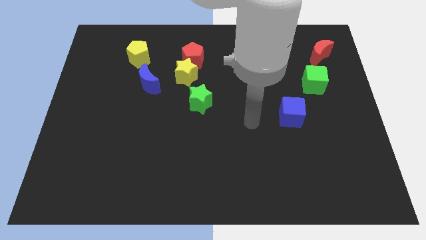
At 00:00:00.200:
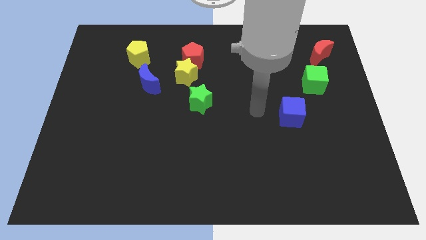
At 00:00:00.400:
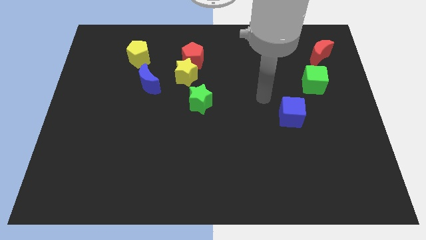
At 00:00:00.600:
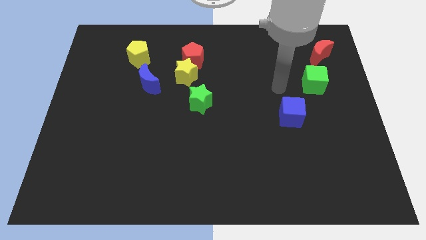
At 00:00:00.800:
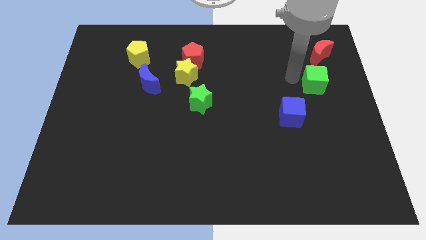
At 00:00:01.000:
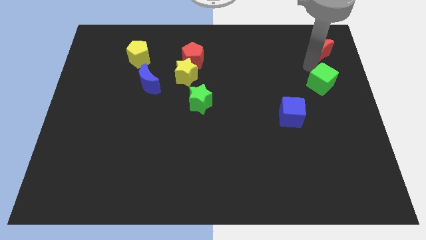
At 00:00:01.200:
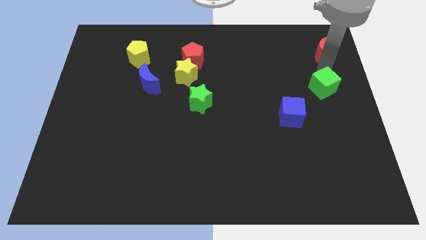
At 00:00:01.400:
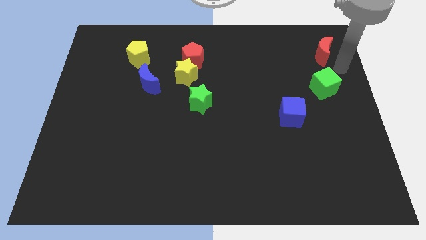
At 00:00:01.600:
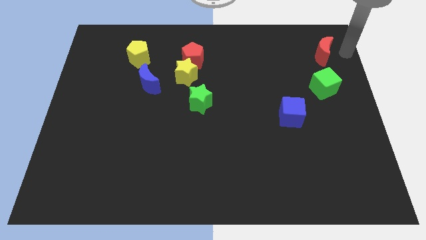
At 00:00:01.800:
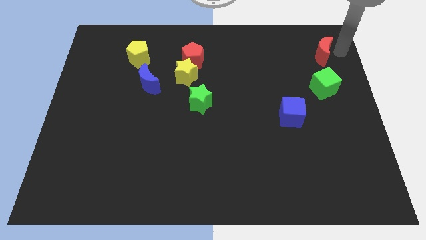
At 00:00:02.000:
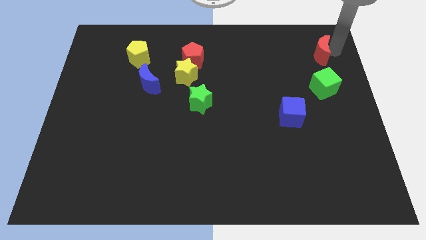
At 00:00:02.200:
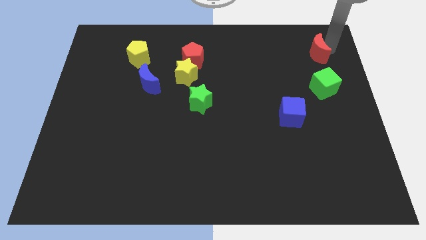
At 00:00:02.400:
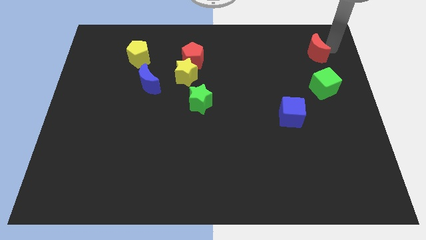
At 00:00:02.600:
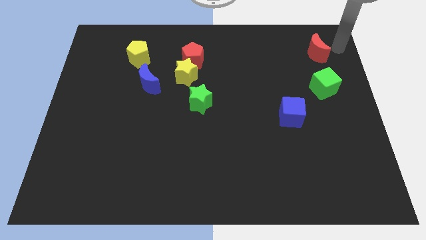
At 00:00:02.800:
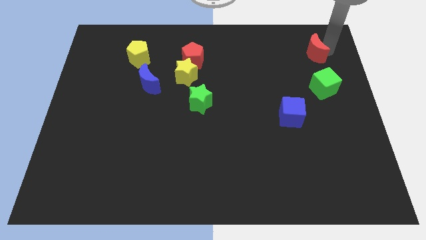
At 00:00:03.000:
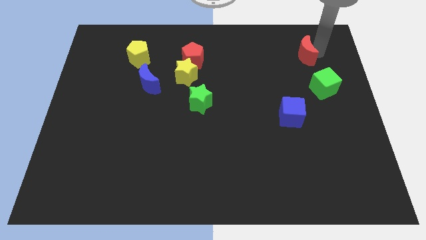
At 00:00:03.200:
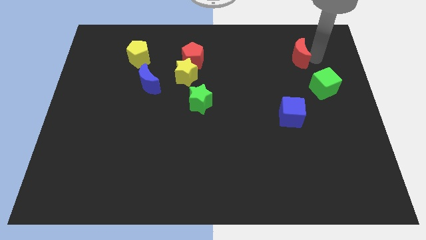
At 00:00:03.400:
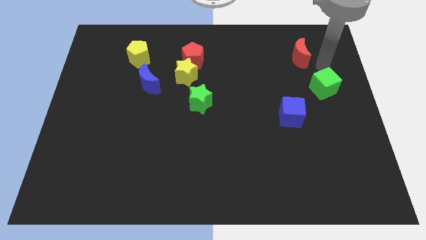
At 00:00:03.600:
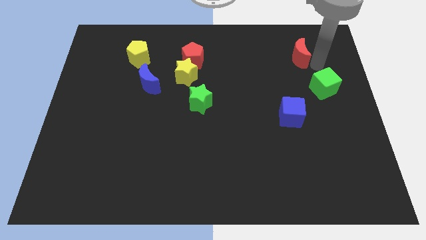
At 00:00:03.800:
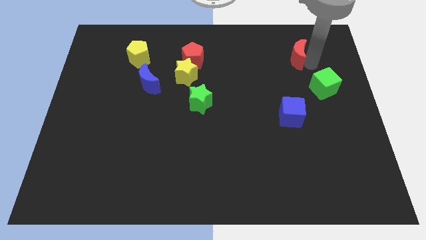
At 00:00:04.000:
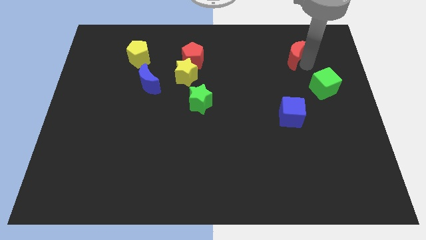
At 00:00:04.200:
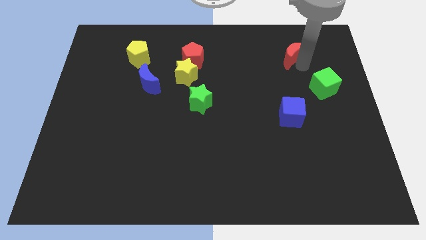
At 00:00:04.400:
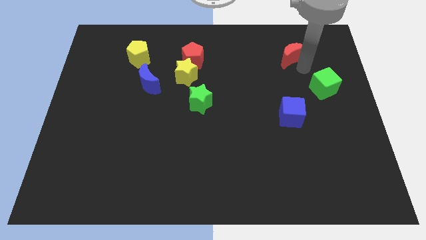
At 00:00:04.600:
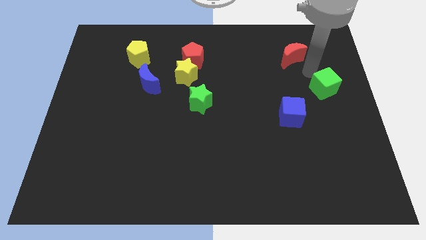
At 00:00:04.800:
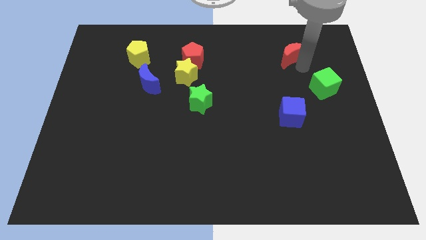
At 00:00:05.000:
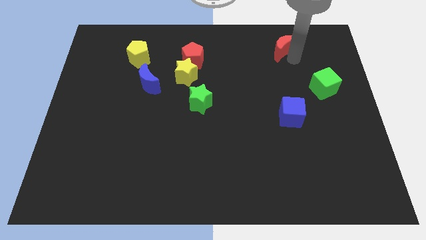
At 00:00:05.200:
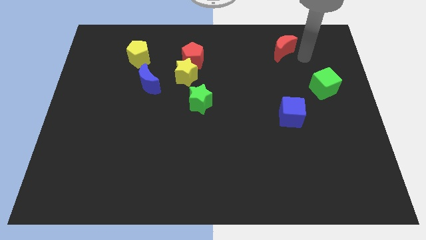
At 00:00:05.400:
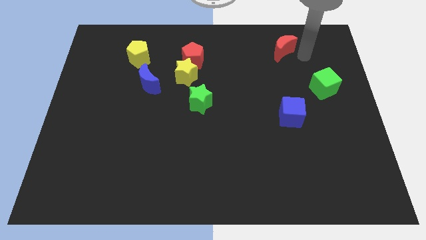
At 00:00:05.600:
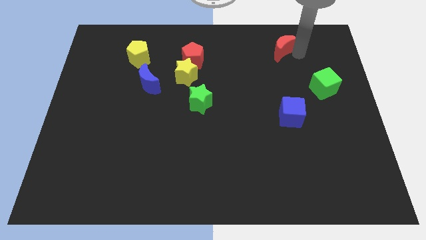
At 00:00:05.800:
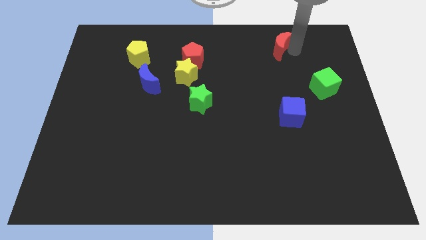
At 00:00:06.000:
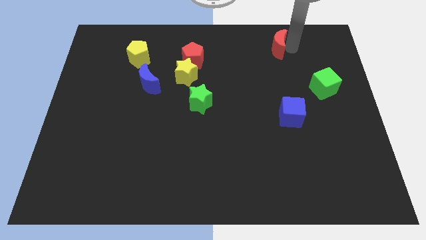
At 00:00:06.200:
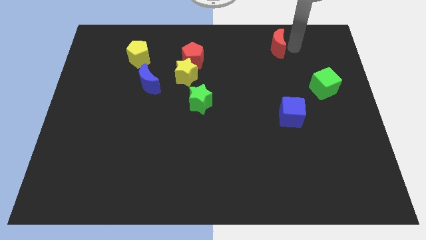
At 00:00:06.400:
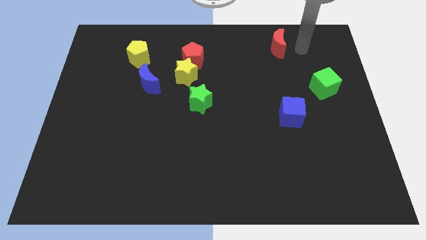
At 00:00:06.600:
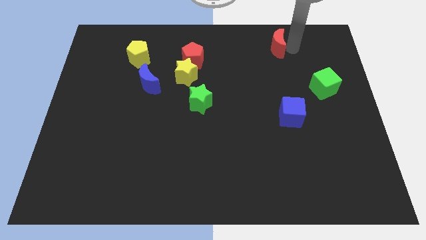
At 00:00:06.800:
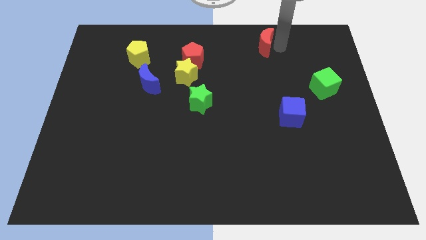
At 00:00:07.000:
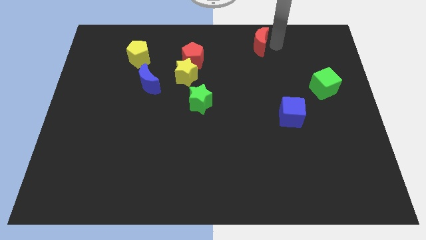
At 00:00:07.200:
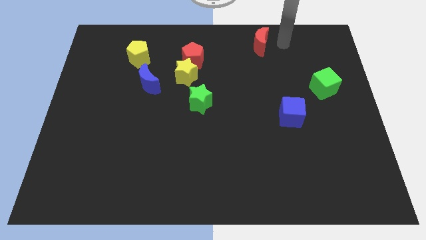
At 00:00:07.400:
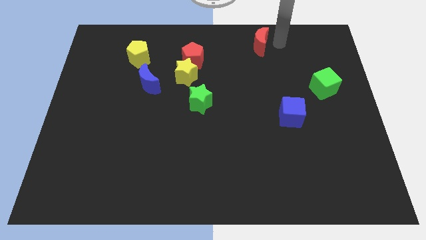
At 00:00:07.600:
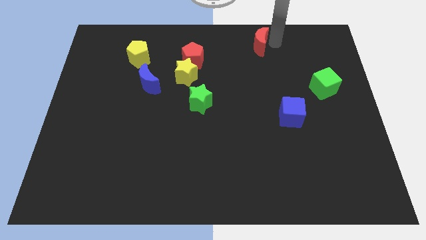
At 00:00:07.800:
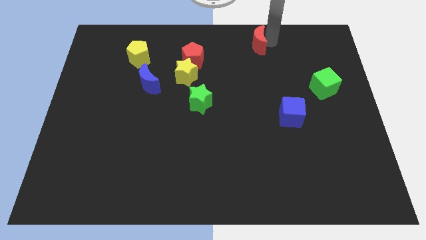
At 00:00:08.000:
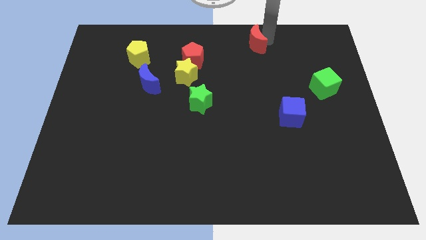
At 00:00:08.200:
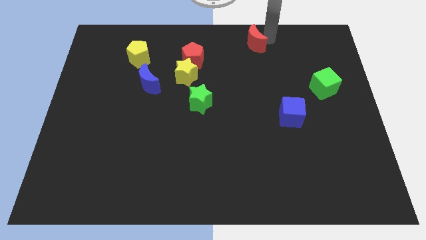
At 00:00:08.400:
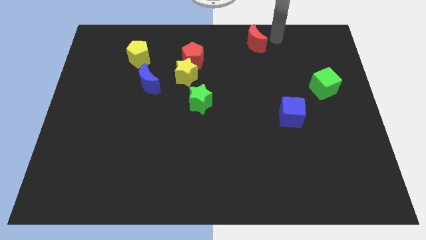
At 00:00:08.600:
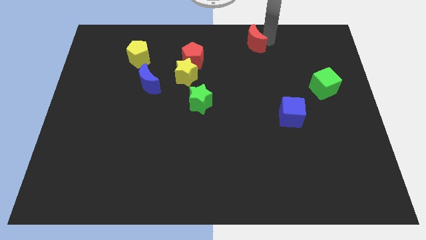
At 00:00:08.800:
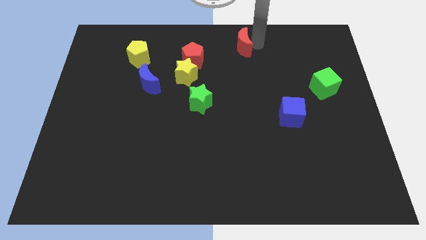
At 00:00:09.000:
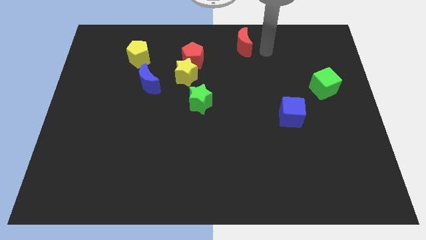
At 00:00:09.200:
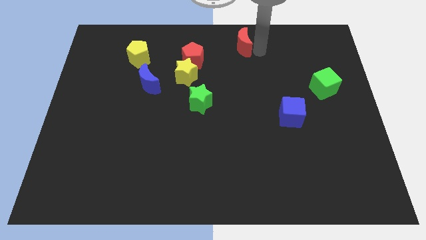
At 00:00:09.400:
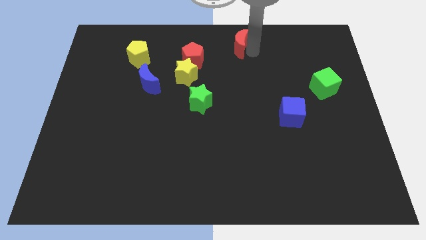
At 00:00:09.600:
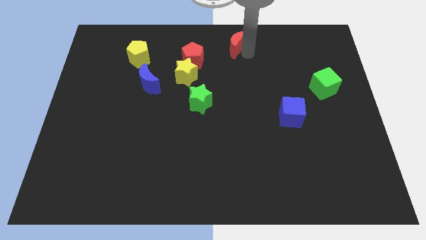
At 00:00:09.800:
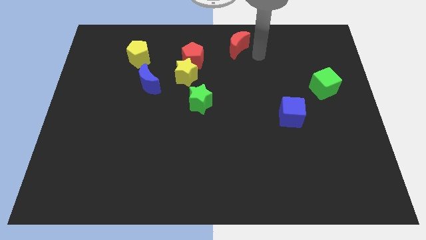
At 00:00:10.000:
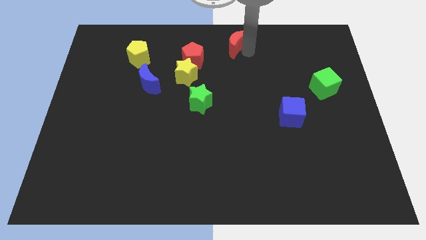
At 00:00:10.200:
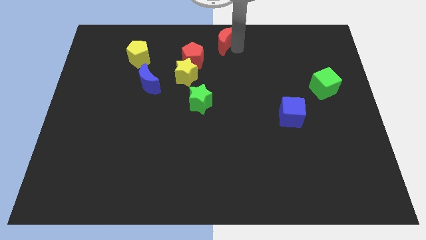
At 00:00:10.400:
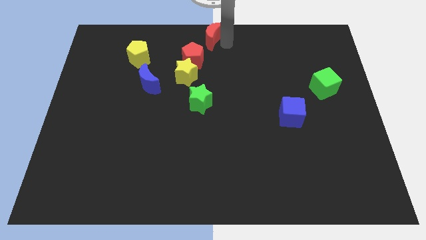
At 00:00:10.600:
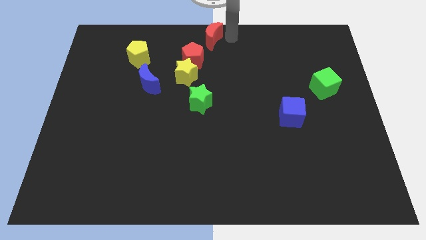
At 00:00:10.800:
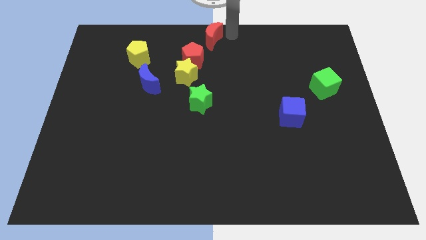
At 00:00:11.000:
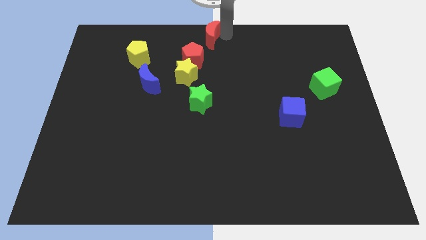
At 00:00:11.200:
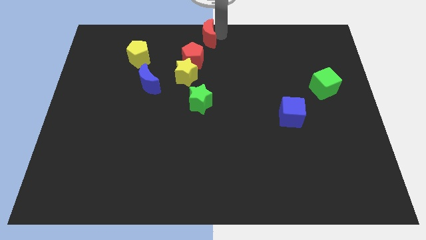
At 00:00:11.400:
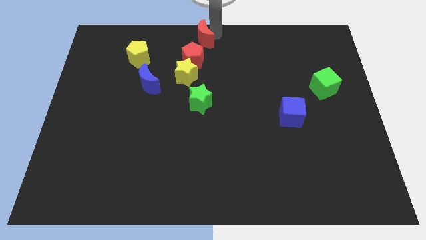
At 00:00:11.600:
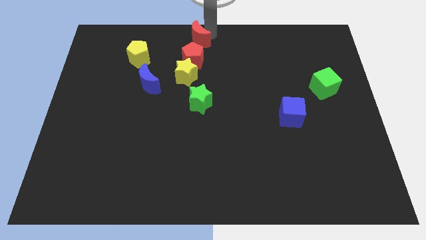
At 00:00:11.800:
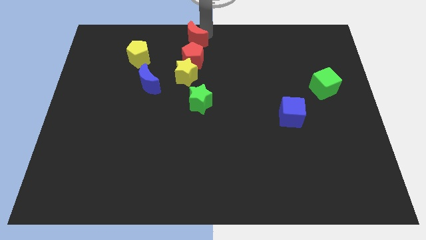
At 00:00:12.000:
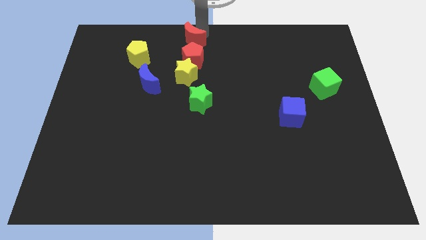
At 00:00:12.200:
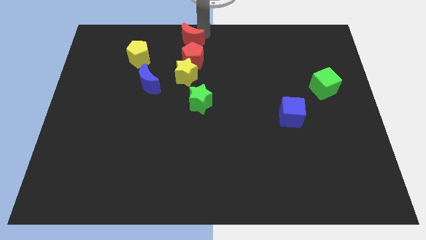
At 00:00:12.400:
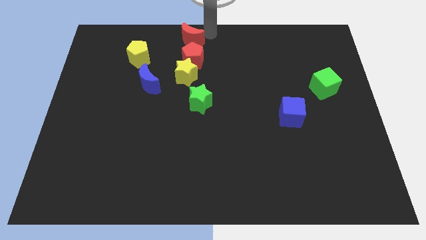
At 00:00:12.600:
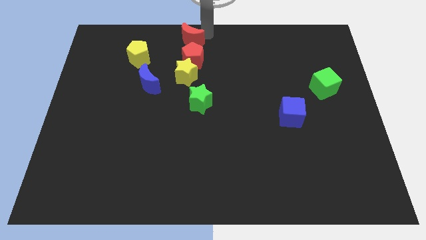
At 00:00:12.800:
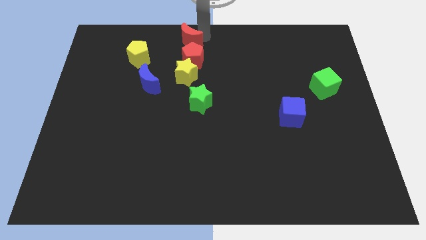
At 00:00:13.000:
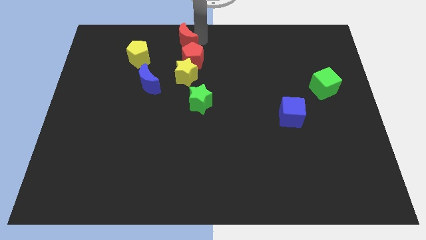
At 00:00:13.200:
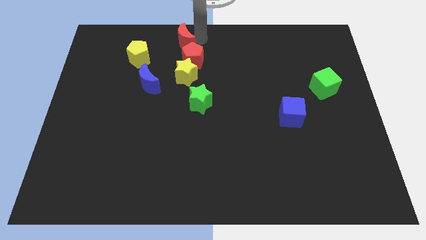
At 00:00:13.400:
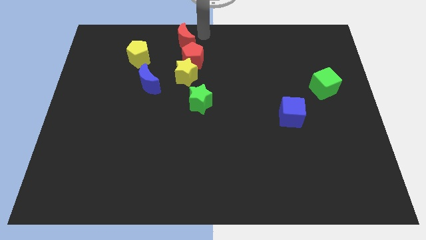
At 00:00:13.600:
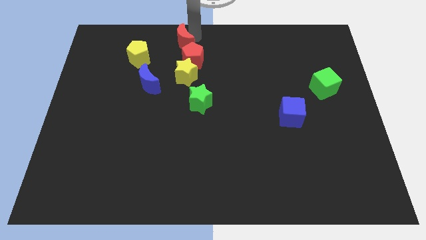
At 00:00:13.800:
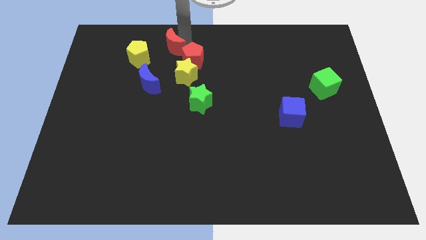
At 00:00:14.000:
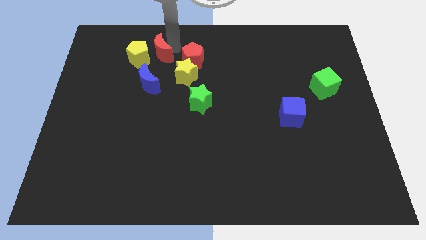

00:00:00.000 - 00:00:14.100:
move the red moon next to the yellow pentagon
